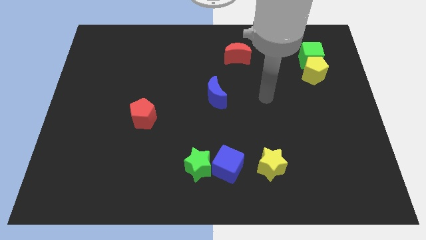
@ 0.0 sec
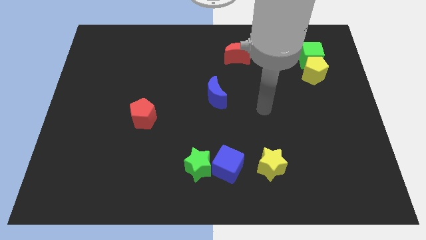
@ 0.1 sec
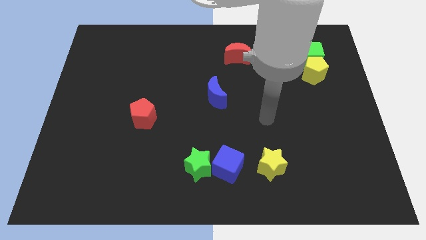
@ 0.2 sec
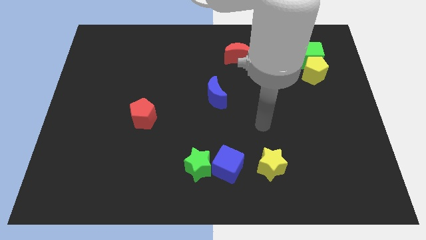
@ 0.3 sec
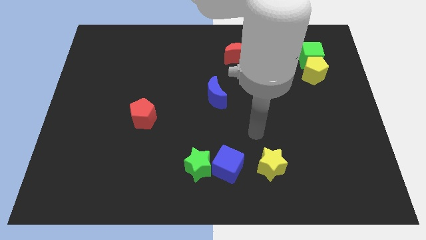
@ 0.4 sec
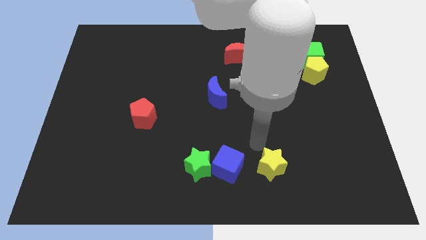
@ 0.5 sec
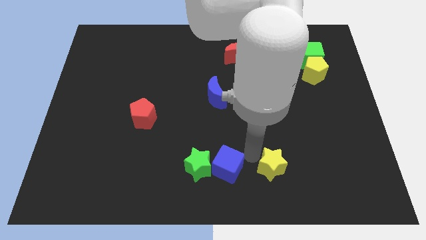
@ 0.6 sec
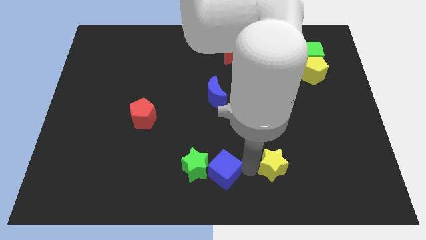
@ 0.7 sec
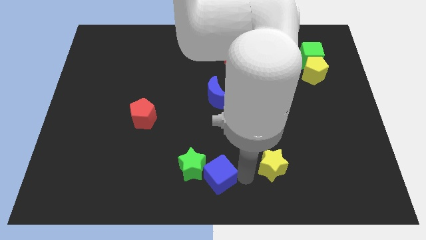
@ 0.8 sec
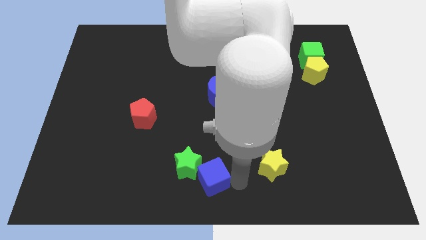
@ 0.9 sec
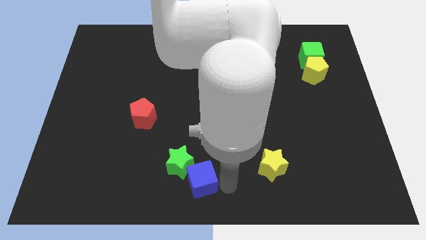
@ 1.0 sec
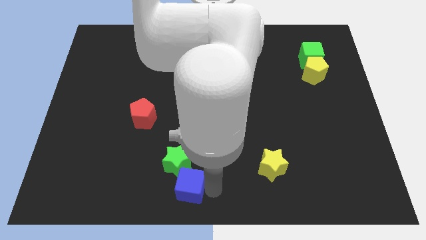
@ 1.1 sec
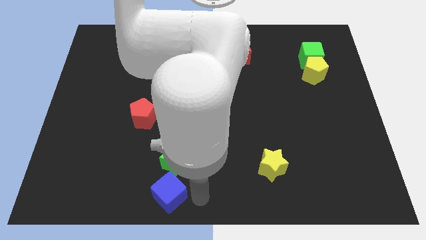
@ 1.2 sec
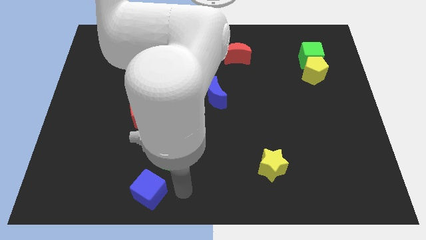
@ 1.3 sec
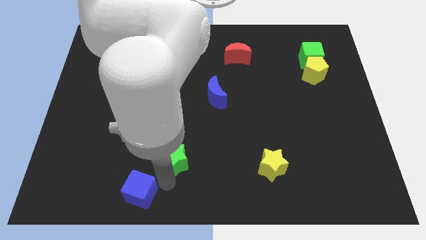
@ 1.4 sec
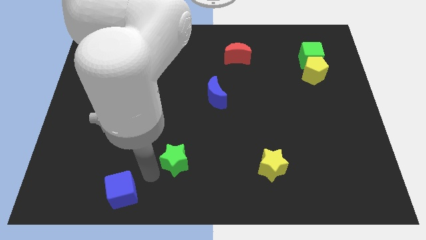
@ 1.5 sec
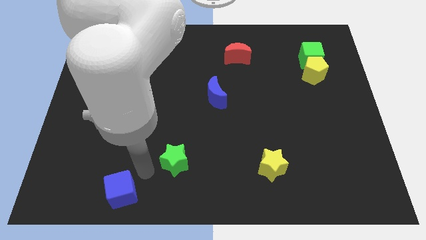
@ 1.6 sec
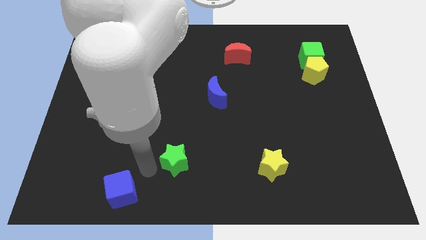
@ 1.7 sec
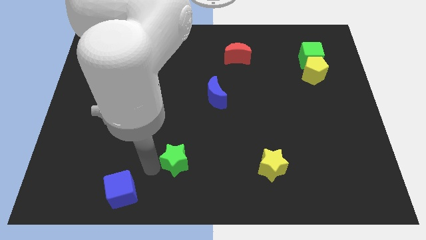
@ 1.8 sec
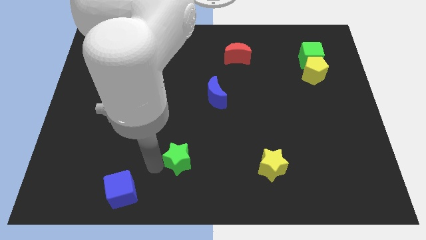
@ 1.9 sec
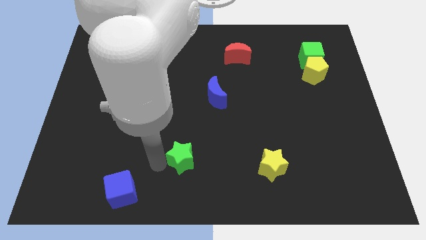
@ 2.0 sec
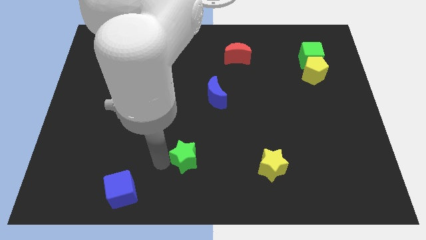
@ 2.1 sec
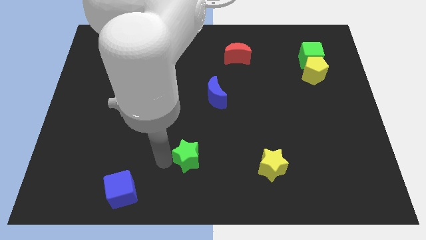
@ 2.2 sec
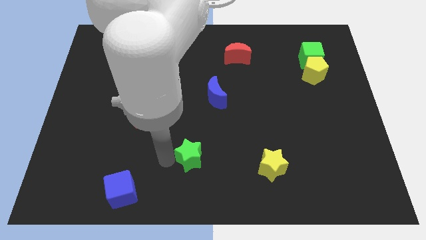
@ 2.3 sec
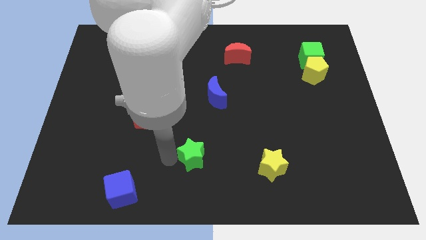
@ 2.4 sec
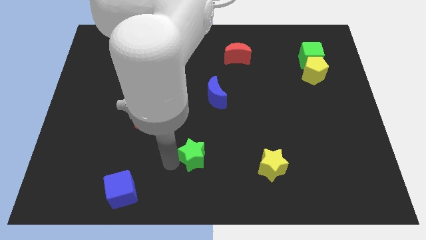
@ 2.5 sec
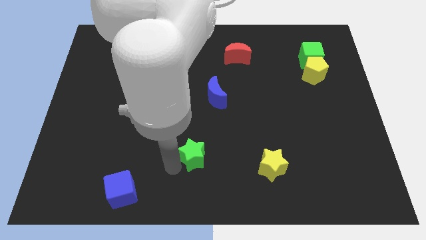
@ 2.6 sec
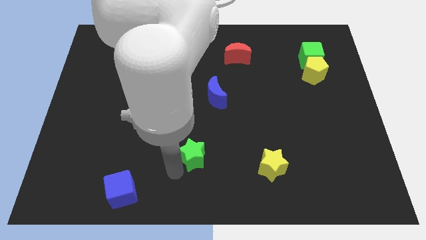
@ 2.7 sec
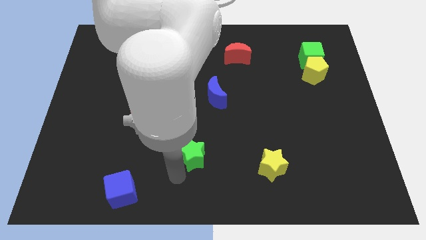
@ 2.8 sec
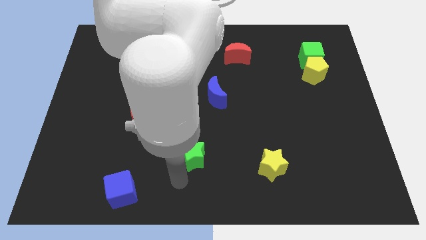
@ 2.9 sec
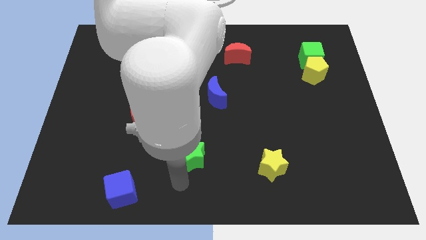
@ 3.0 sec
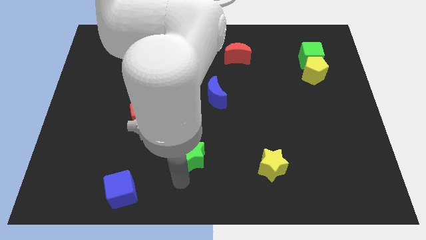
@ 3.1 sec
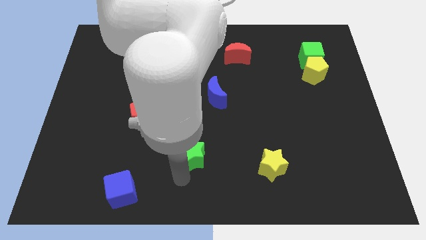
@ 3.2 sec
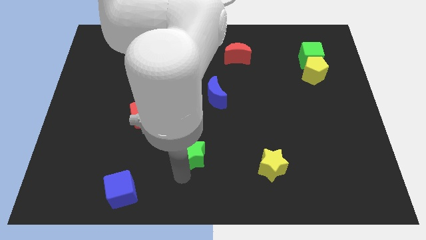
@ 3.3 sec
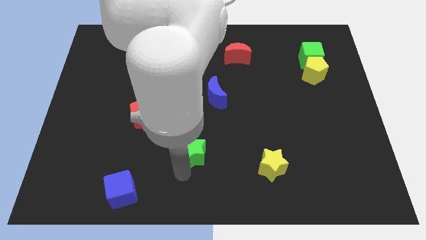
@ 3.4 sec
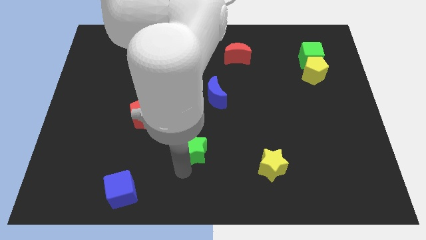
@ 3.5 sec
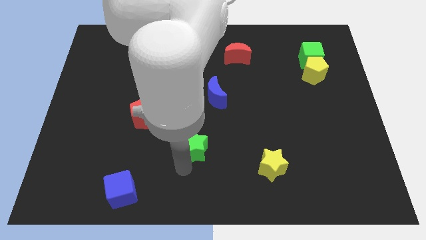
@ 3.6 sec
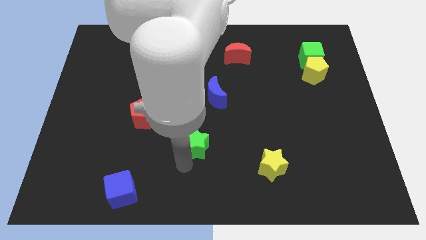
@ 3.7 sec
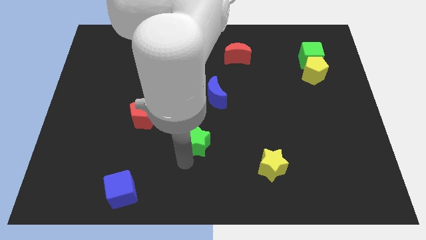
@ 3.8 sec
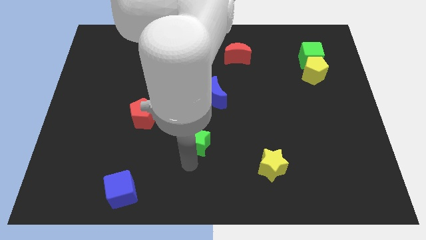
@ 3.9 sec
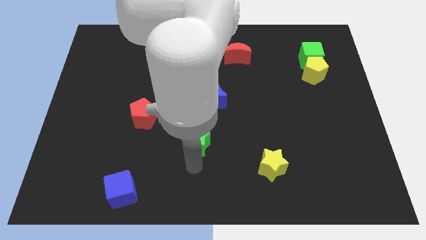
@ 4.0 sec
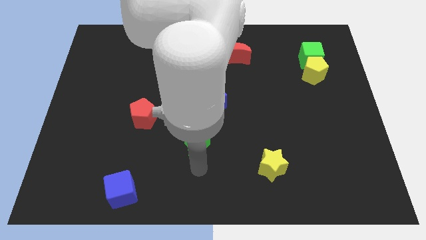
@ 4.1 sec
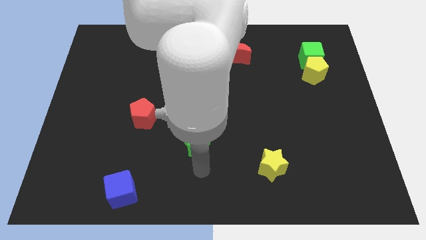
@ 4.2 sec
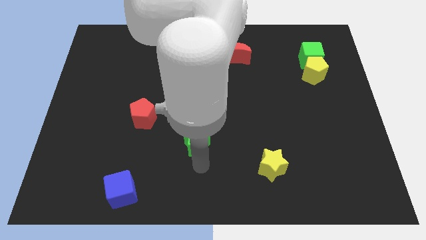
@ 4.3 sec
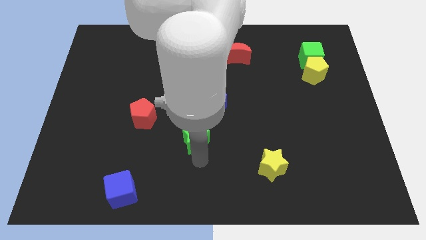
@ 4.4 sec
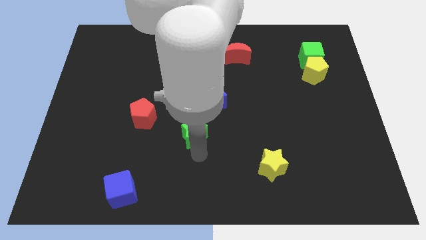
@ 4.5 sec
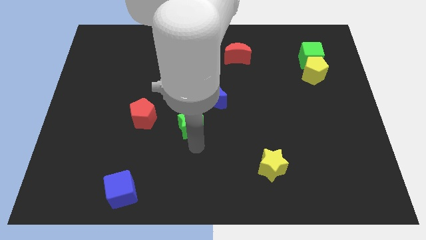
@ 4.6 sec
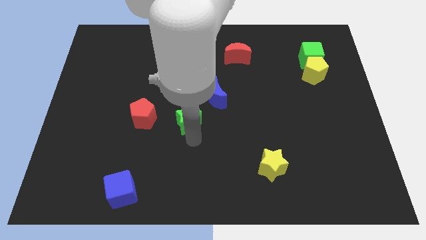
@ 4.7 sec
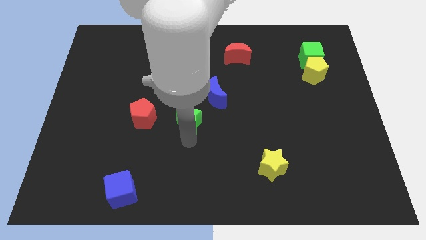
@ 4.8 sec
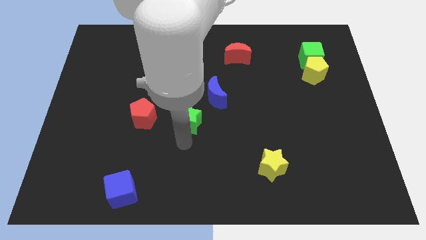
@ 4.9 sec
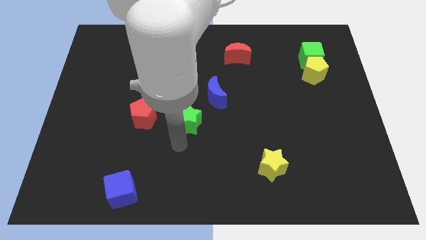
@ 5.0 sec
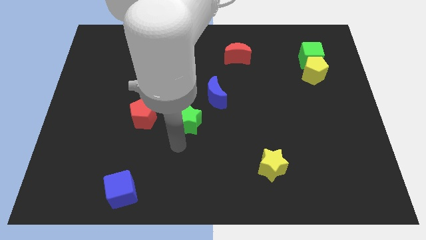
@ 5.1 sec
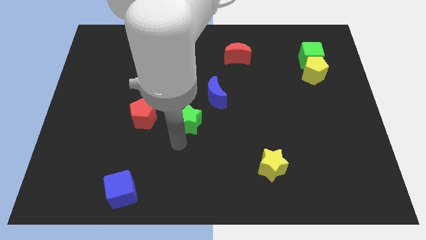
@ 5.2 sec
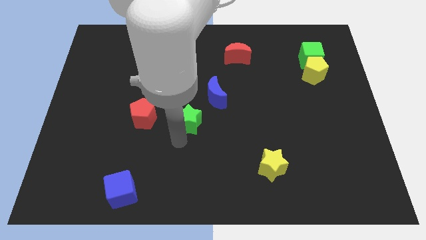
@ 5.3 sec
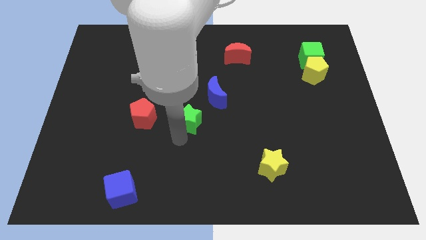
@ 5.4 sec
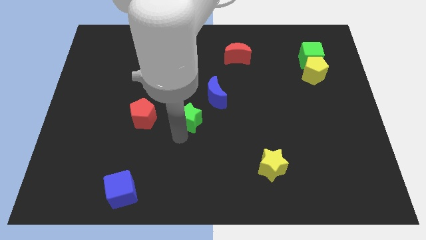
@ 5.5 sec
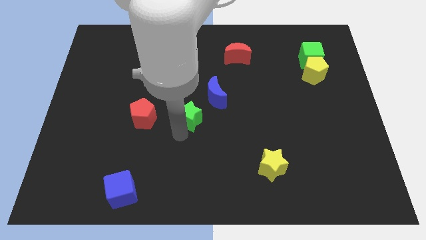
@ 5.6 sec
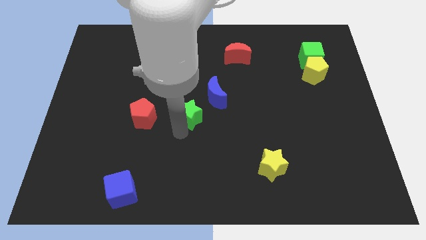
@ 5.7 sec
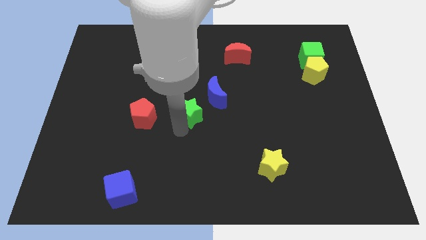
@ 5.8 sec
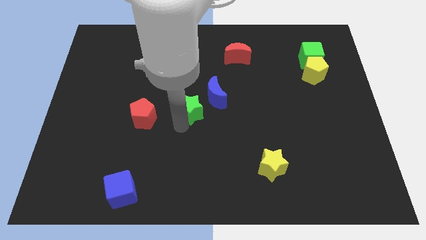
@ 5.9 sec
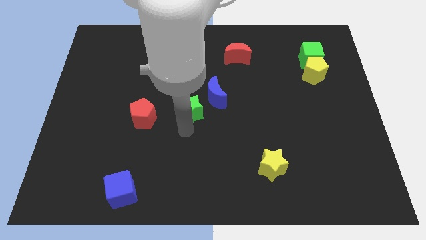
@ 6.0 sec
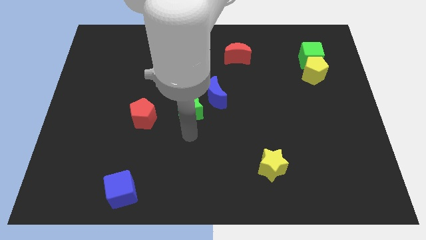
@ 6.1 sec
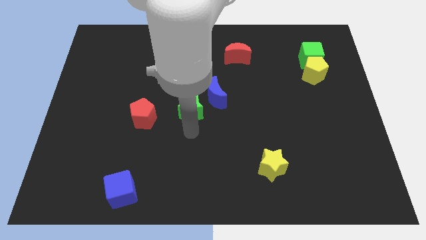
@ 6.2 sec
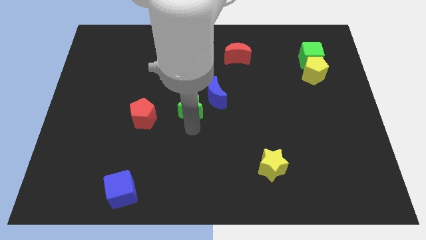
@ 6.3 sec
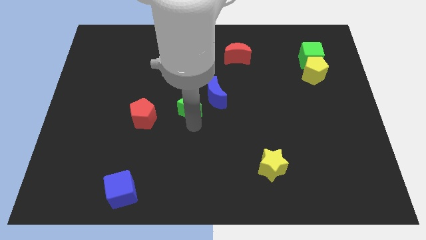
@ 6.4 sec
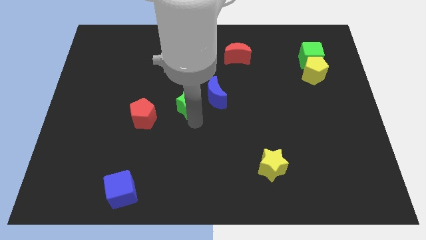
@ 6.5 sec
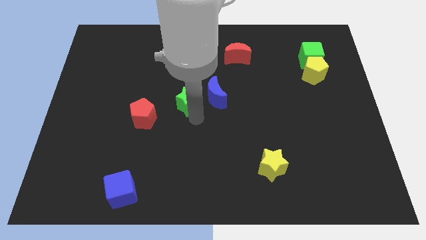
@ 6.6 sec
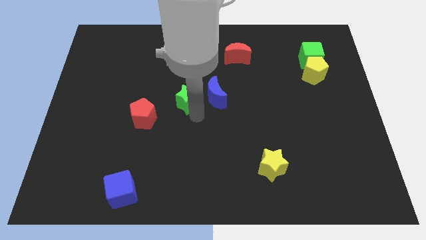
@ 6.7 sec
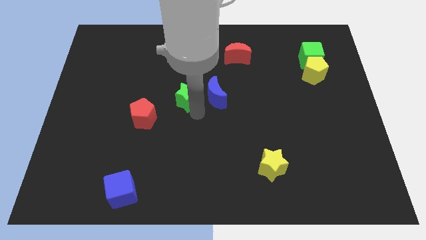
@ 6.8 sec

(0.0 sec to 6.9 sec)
move the green star to the top left of the blue moon
